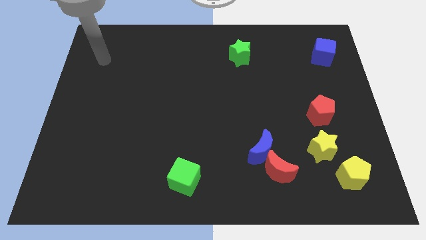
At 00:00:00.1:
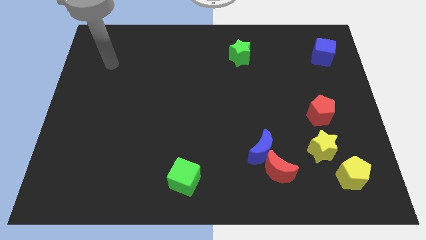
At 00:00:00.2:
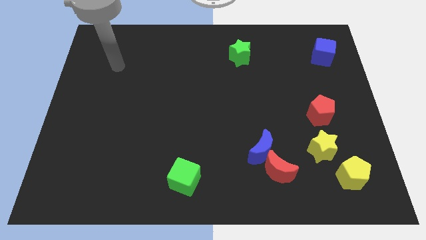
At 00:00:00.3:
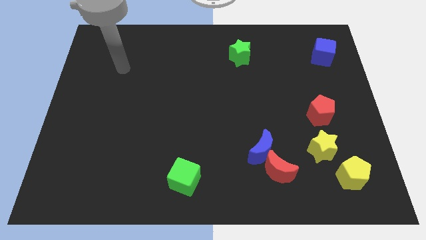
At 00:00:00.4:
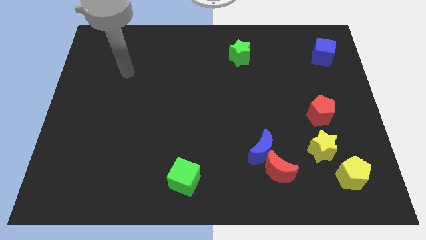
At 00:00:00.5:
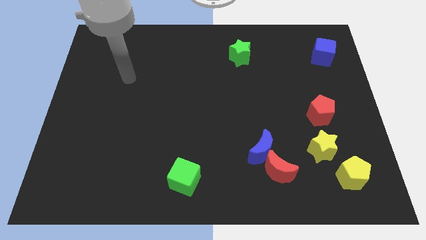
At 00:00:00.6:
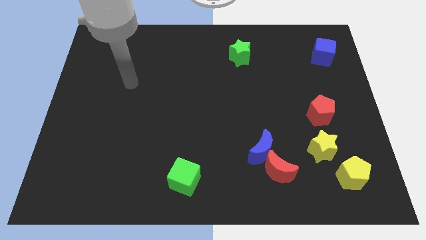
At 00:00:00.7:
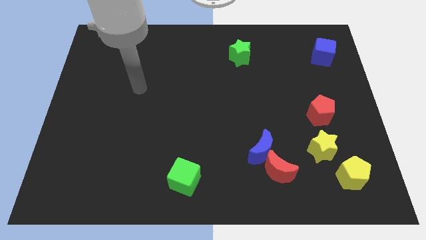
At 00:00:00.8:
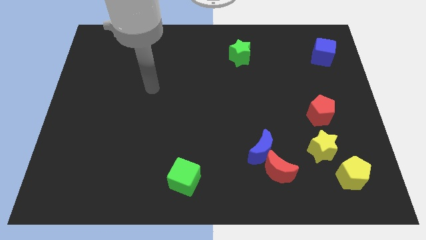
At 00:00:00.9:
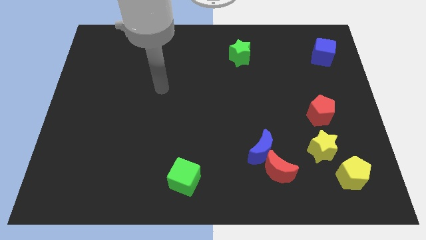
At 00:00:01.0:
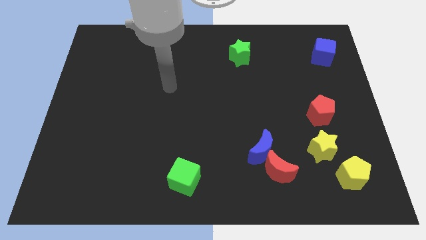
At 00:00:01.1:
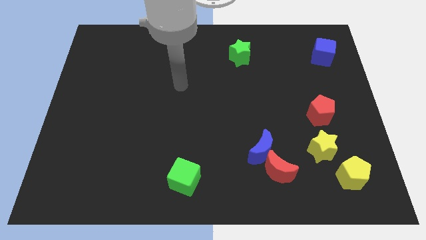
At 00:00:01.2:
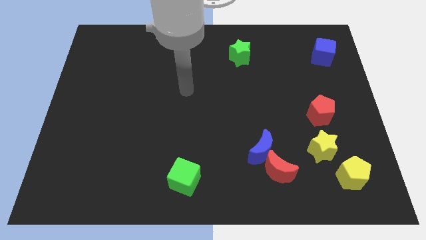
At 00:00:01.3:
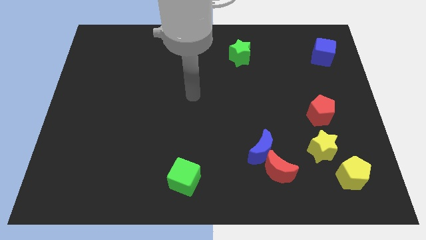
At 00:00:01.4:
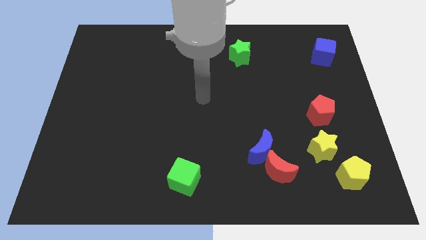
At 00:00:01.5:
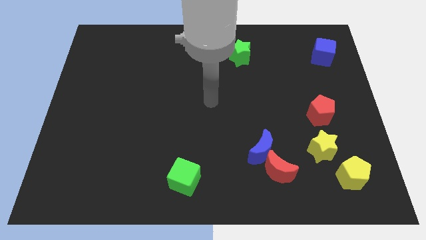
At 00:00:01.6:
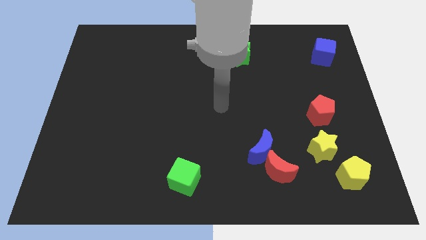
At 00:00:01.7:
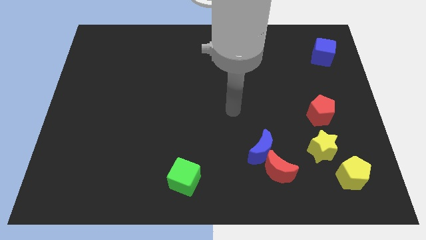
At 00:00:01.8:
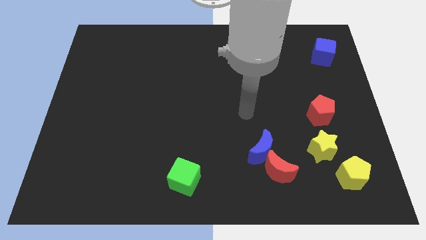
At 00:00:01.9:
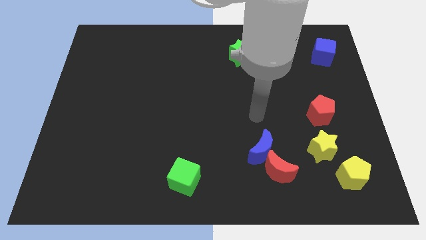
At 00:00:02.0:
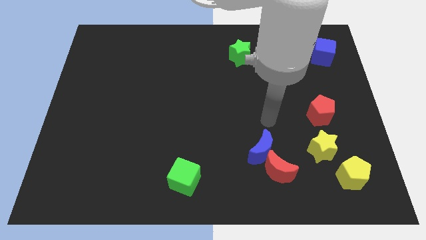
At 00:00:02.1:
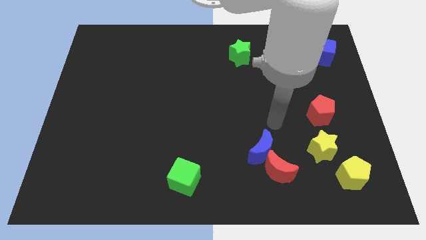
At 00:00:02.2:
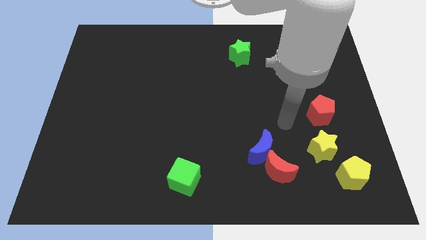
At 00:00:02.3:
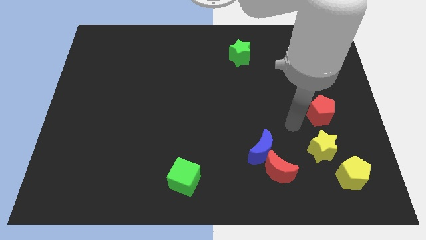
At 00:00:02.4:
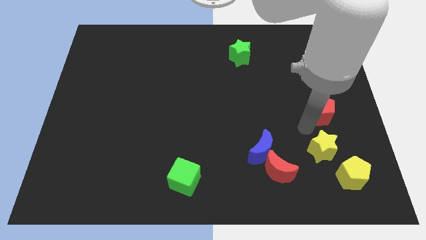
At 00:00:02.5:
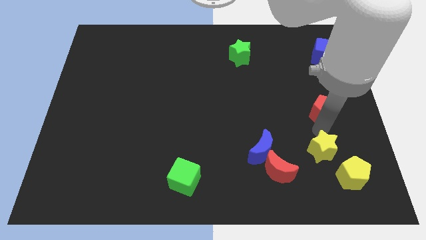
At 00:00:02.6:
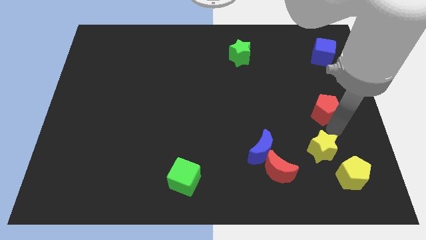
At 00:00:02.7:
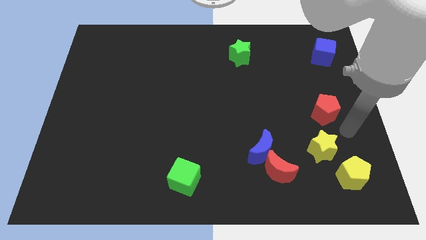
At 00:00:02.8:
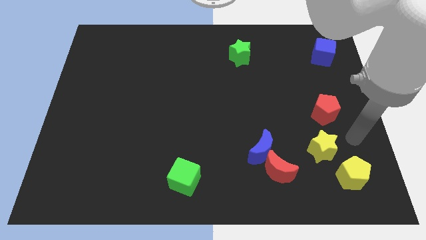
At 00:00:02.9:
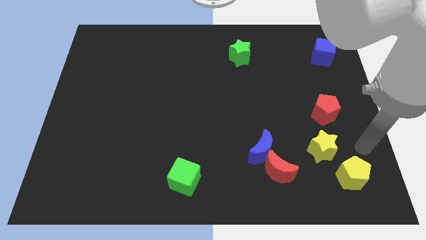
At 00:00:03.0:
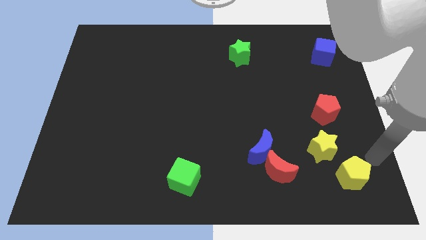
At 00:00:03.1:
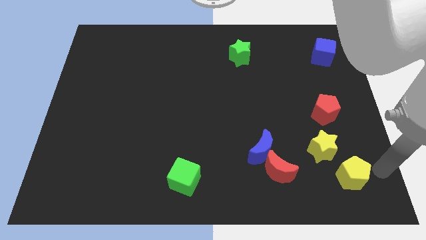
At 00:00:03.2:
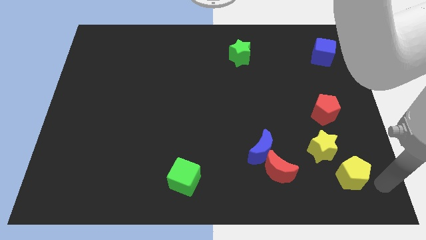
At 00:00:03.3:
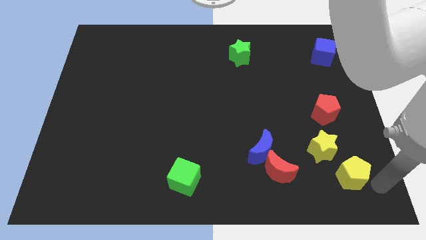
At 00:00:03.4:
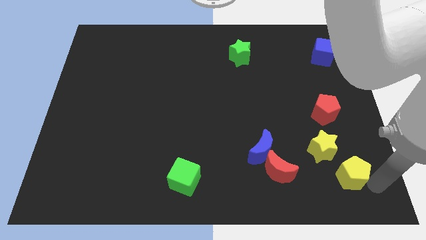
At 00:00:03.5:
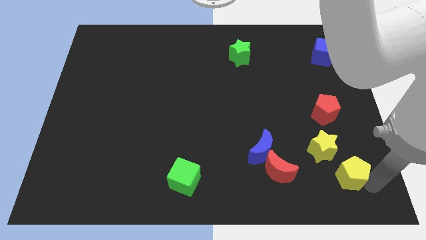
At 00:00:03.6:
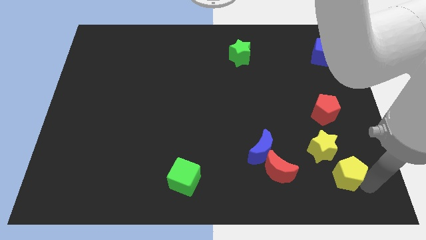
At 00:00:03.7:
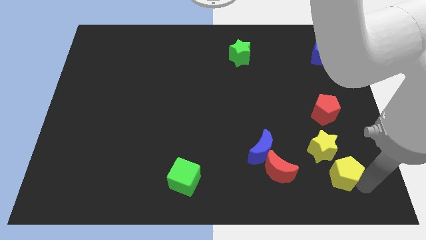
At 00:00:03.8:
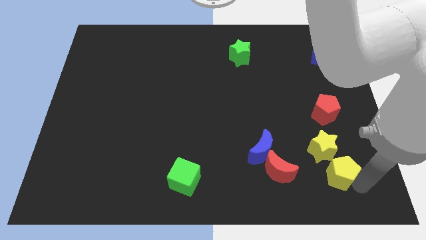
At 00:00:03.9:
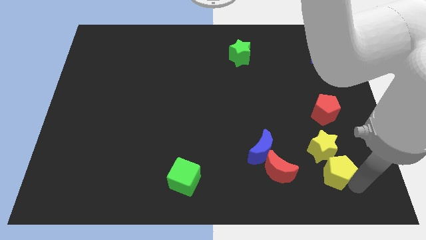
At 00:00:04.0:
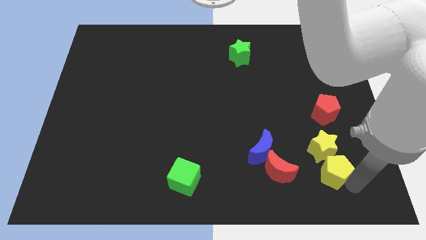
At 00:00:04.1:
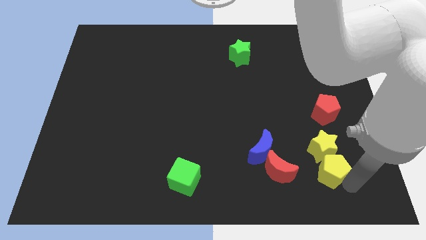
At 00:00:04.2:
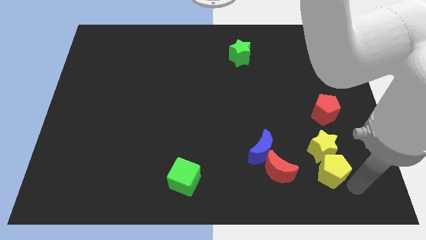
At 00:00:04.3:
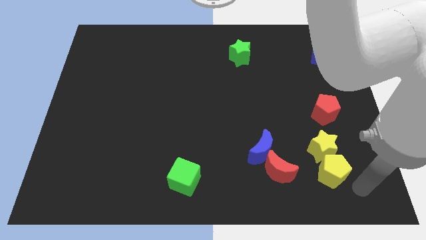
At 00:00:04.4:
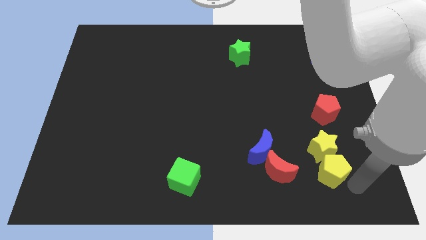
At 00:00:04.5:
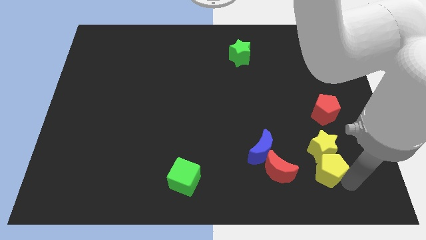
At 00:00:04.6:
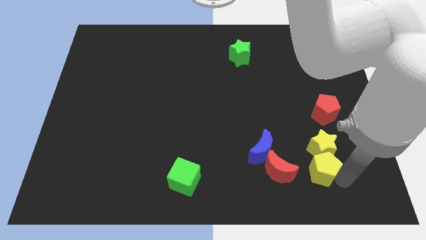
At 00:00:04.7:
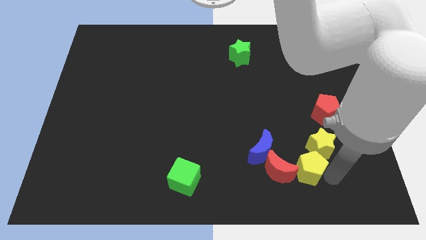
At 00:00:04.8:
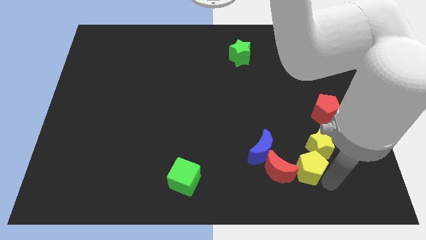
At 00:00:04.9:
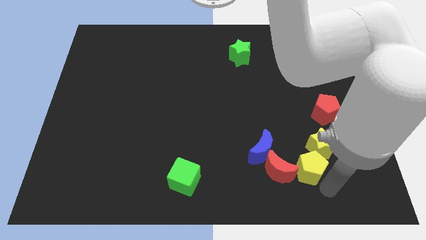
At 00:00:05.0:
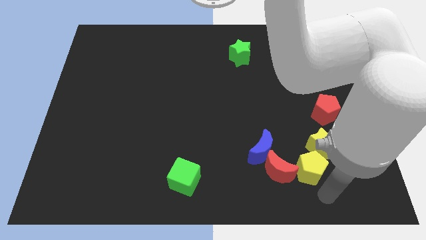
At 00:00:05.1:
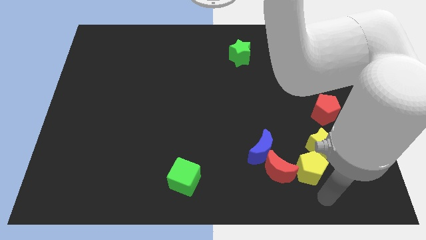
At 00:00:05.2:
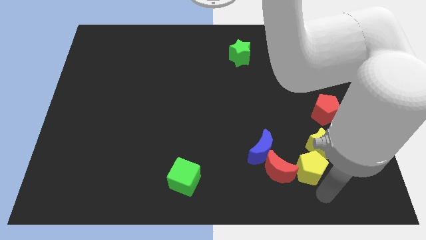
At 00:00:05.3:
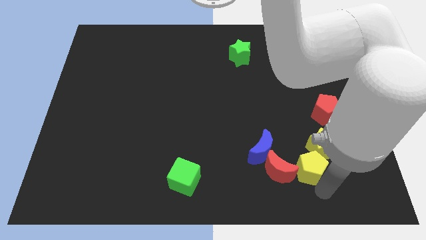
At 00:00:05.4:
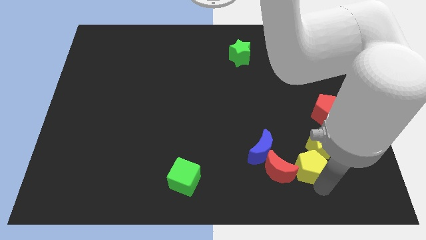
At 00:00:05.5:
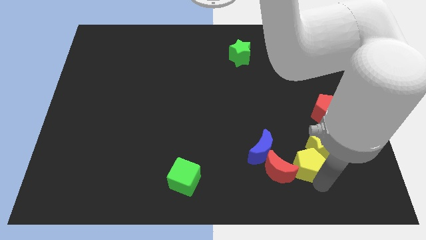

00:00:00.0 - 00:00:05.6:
move the yellow pentagon upwards and then left somewhat

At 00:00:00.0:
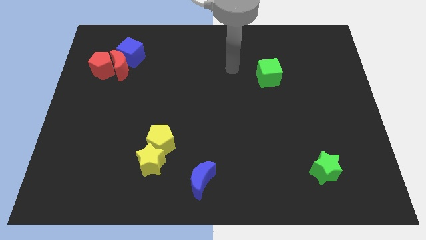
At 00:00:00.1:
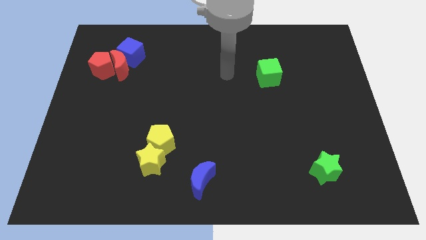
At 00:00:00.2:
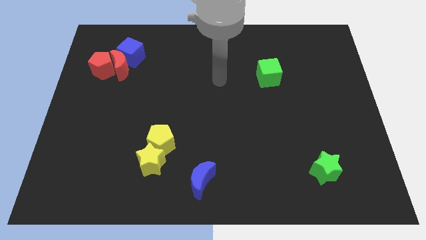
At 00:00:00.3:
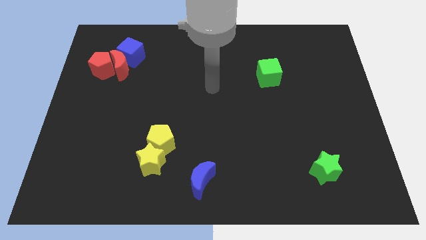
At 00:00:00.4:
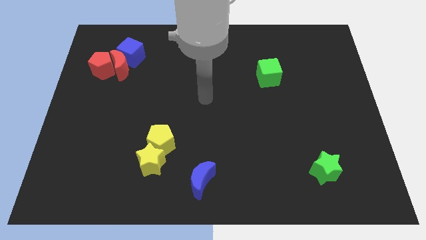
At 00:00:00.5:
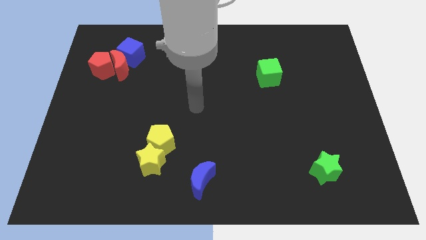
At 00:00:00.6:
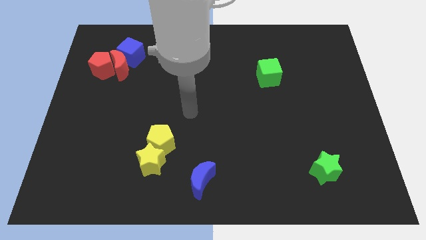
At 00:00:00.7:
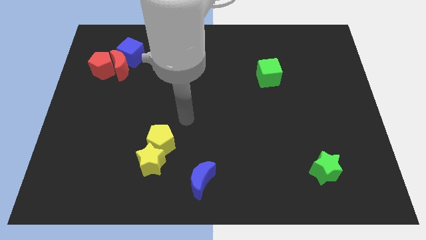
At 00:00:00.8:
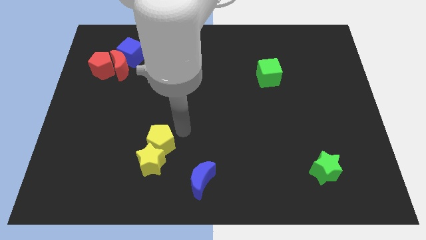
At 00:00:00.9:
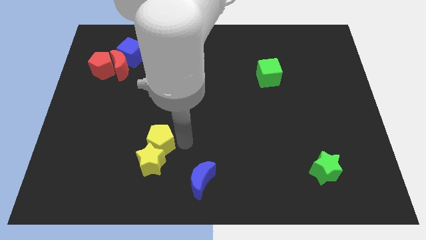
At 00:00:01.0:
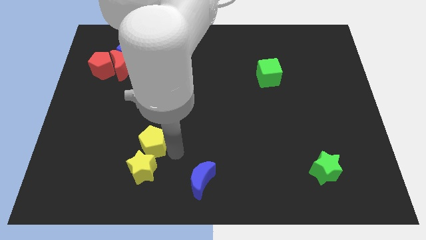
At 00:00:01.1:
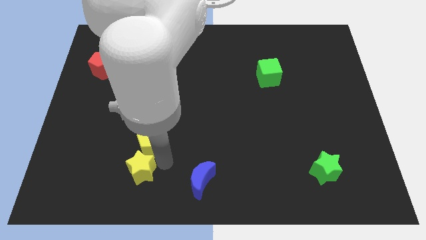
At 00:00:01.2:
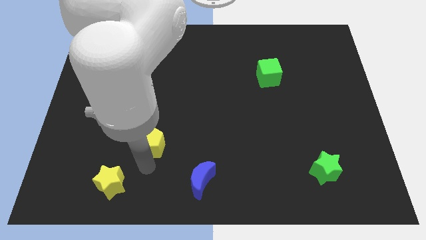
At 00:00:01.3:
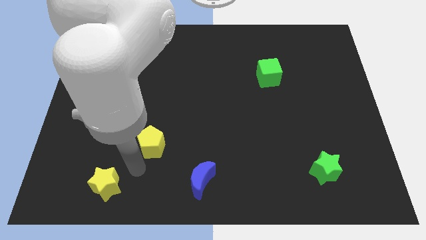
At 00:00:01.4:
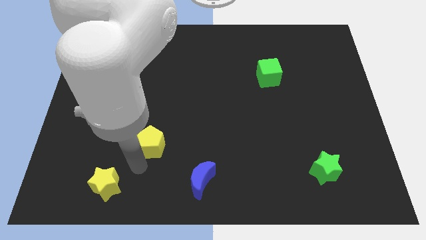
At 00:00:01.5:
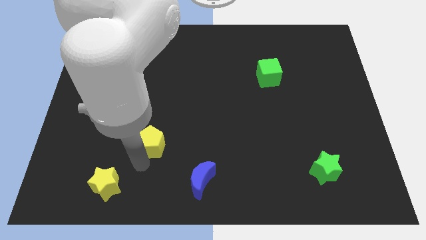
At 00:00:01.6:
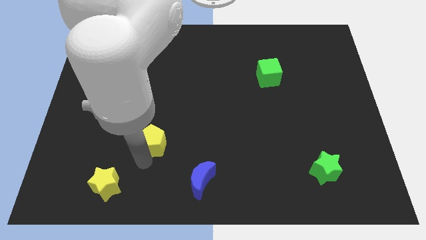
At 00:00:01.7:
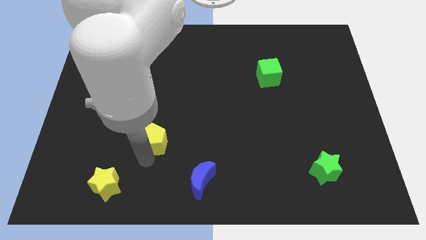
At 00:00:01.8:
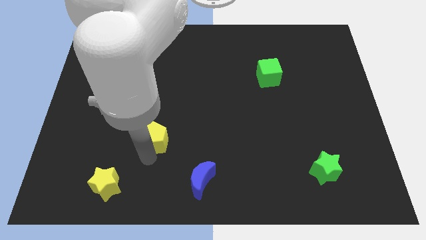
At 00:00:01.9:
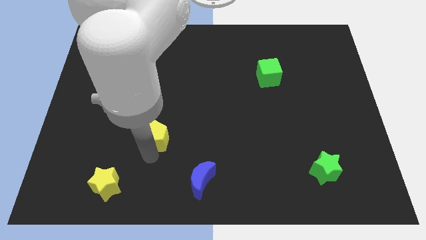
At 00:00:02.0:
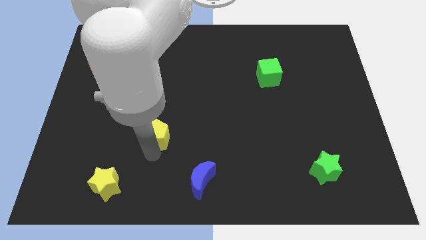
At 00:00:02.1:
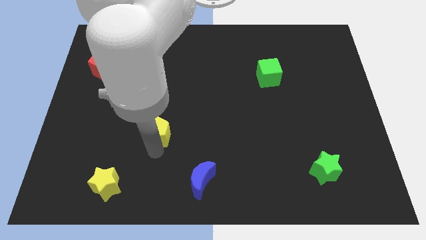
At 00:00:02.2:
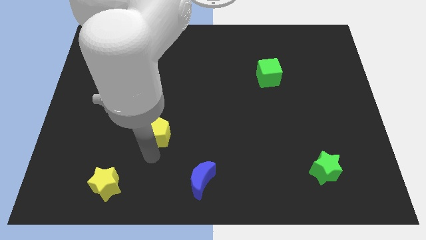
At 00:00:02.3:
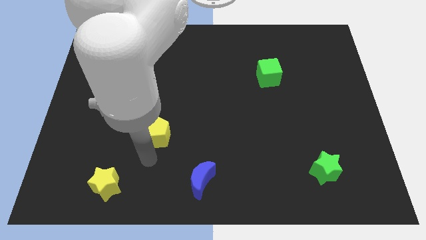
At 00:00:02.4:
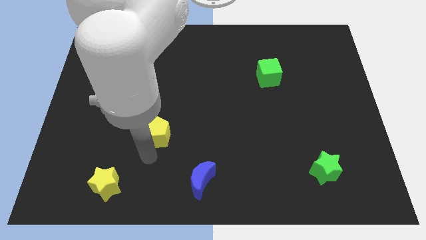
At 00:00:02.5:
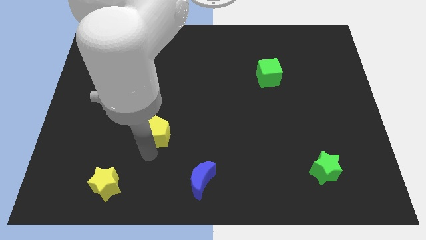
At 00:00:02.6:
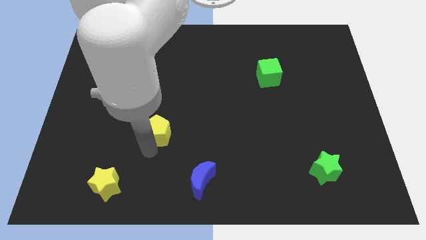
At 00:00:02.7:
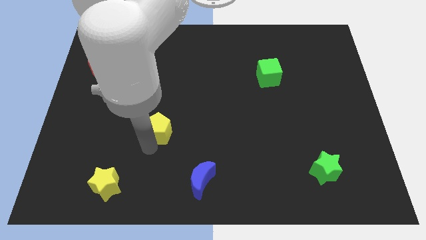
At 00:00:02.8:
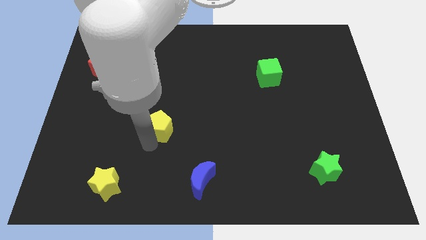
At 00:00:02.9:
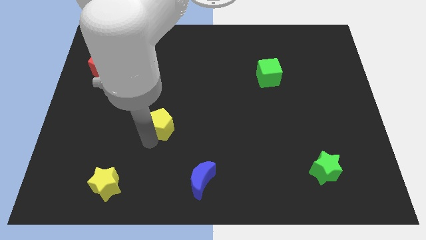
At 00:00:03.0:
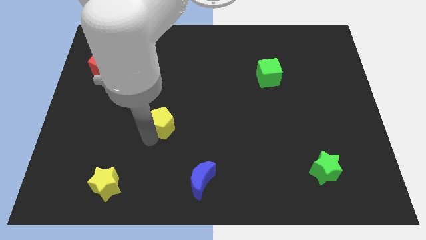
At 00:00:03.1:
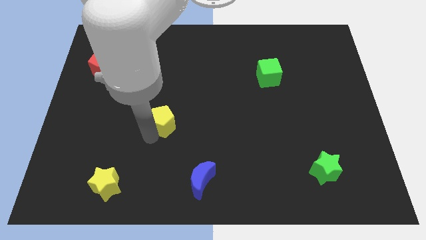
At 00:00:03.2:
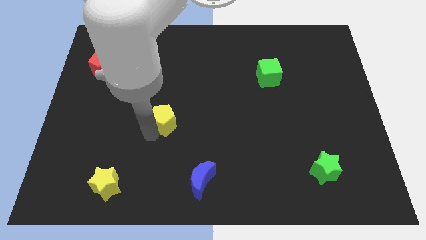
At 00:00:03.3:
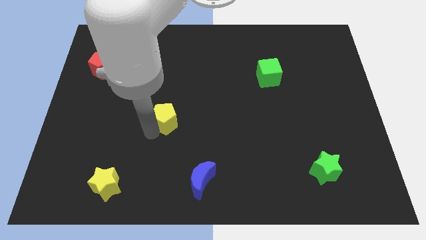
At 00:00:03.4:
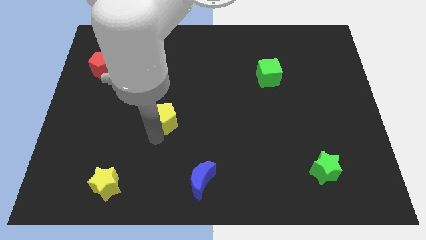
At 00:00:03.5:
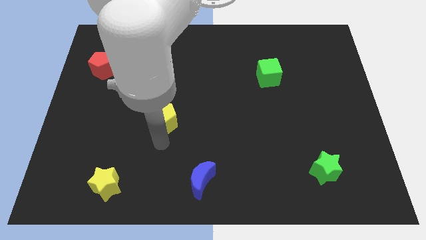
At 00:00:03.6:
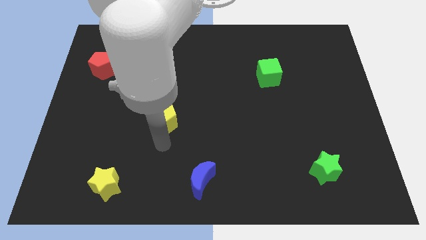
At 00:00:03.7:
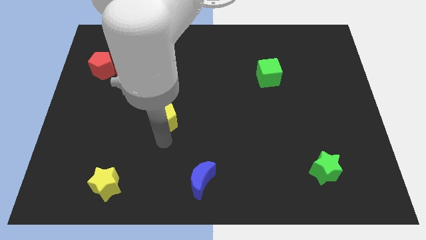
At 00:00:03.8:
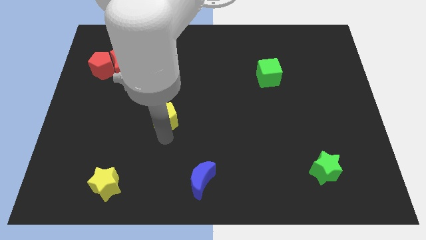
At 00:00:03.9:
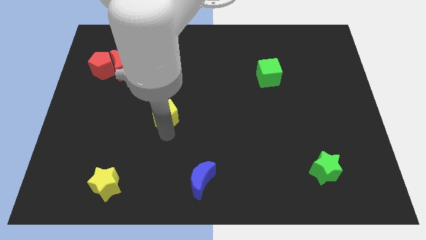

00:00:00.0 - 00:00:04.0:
push the yellow pentagon up a little
